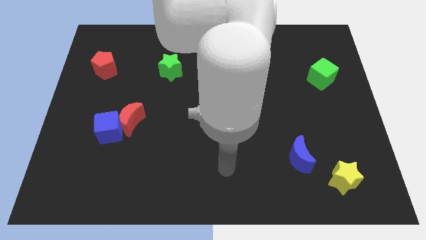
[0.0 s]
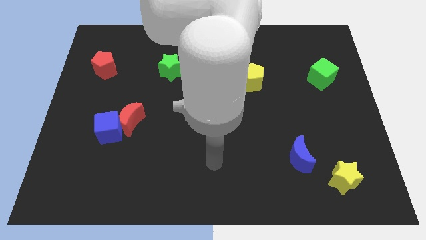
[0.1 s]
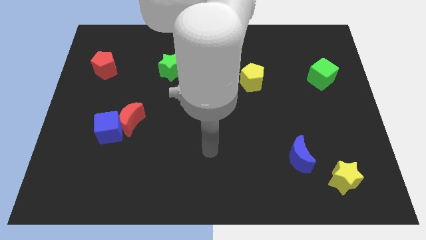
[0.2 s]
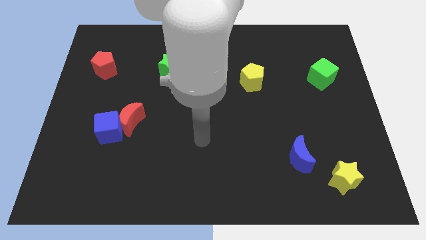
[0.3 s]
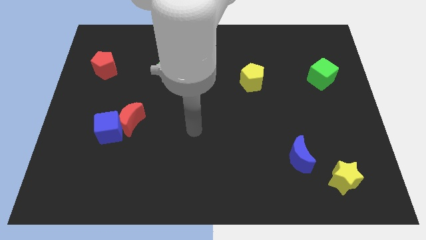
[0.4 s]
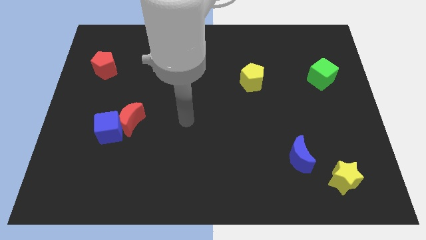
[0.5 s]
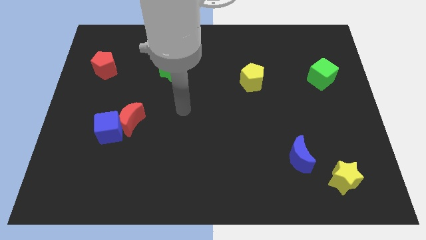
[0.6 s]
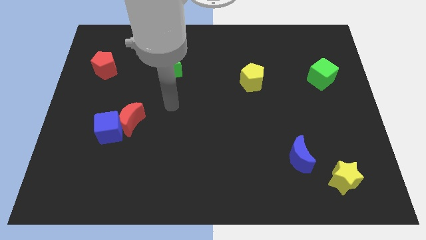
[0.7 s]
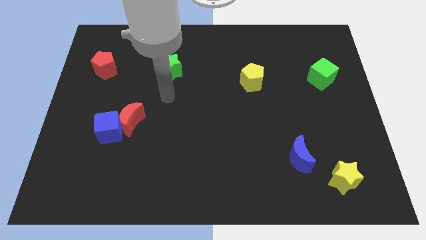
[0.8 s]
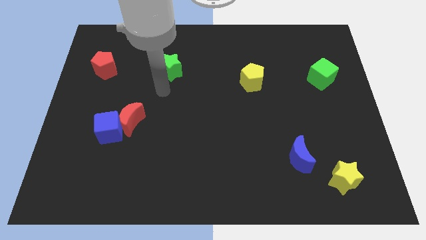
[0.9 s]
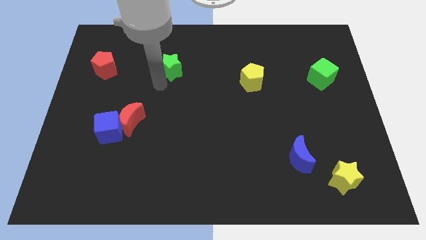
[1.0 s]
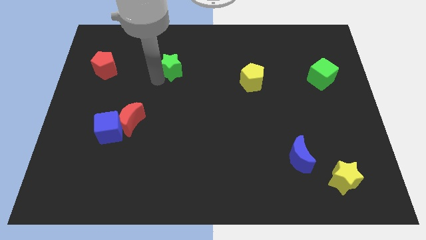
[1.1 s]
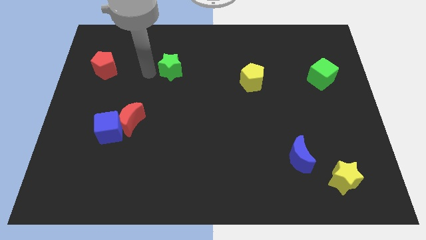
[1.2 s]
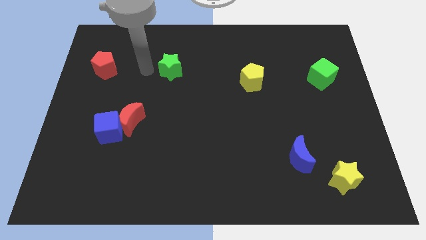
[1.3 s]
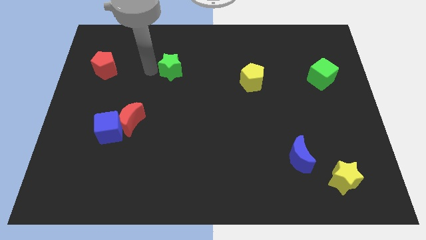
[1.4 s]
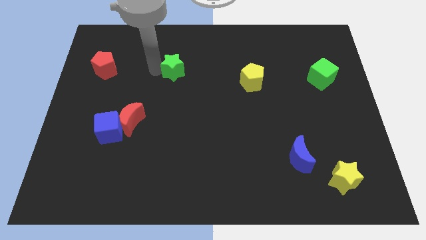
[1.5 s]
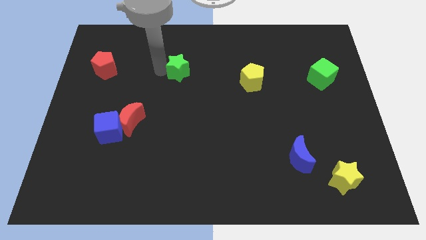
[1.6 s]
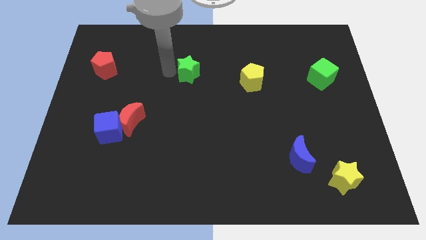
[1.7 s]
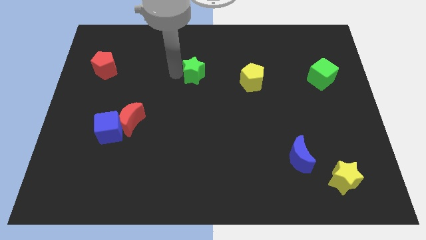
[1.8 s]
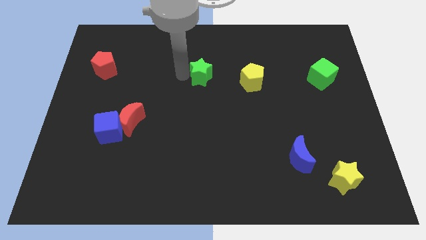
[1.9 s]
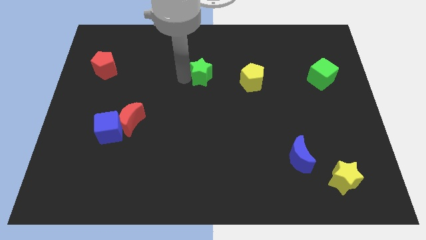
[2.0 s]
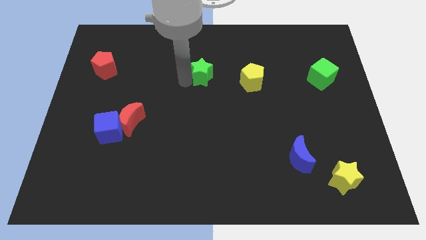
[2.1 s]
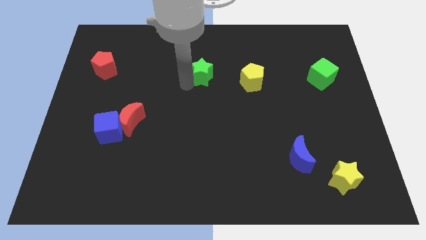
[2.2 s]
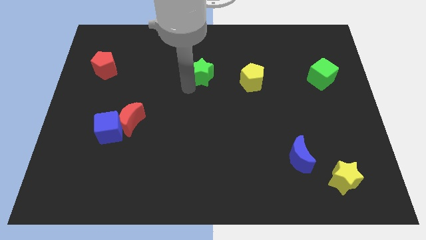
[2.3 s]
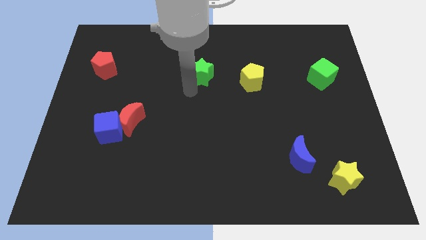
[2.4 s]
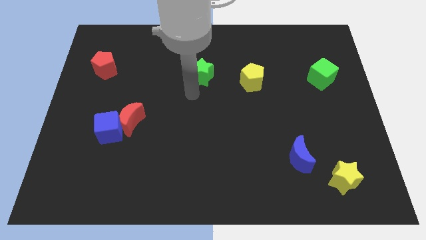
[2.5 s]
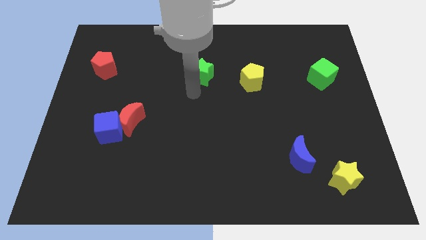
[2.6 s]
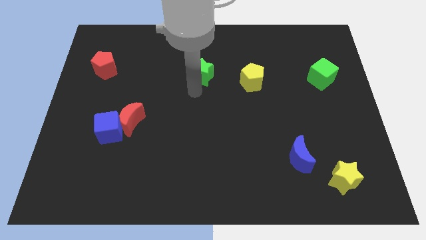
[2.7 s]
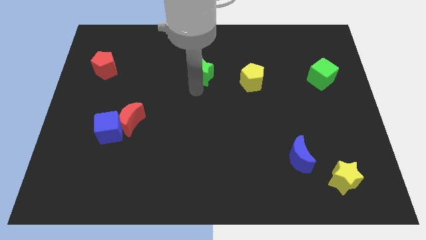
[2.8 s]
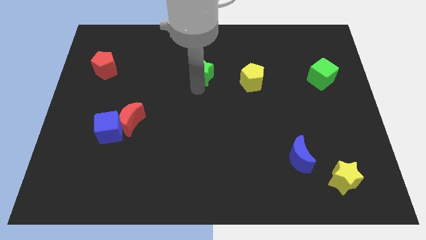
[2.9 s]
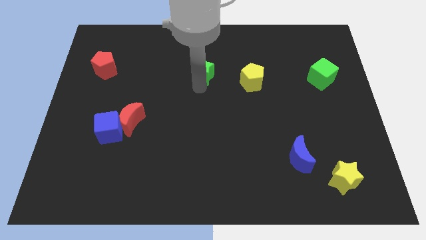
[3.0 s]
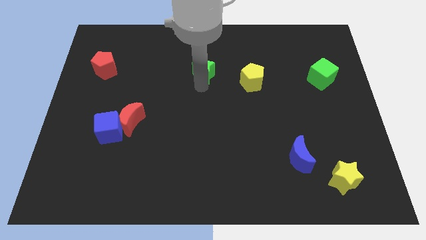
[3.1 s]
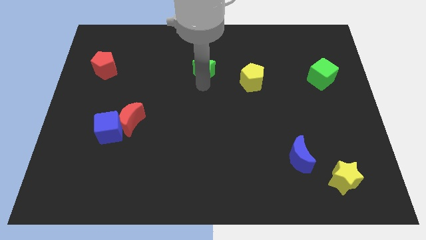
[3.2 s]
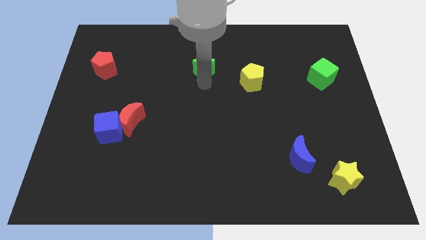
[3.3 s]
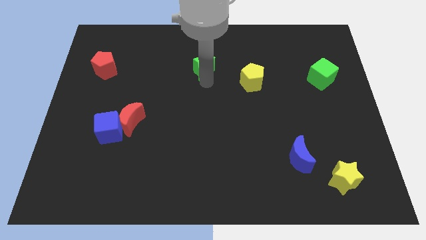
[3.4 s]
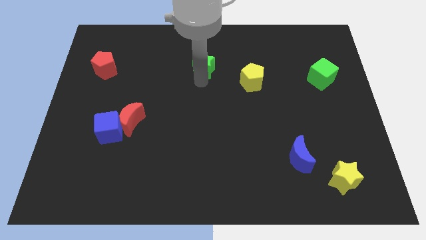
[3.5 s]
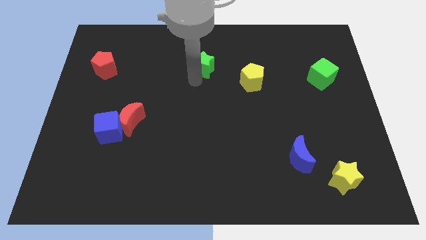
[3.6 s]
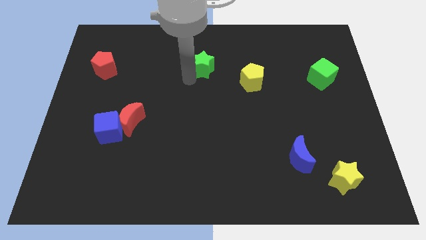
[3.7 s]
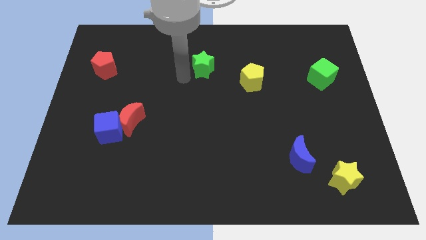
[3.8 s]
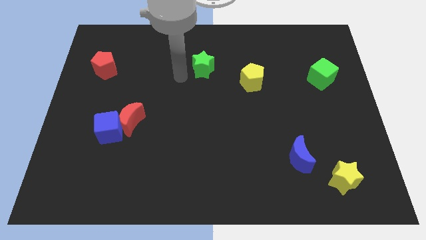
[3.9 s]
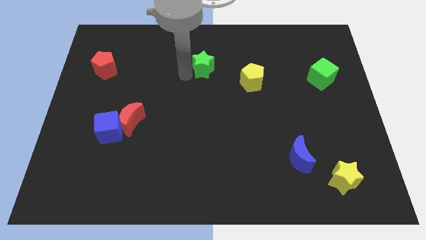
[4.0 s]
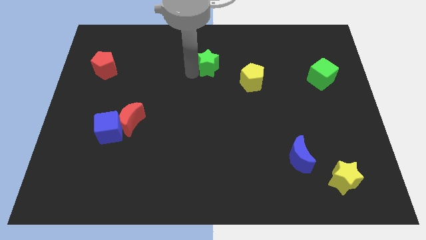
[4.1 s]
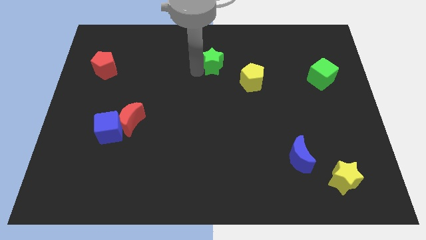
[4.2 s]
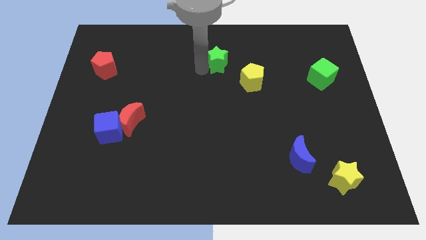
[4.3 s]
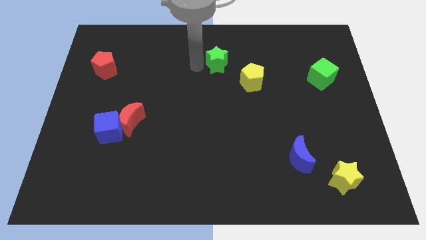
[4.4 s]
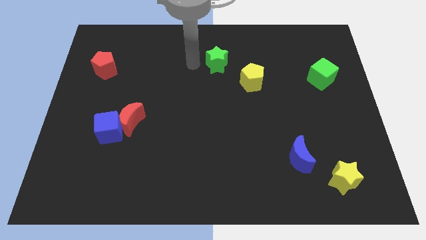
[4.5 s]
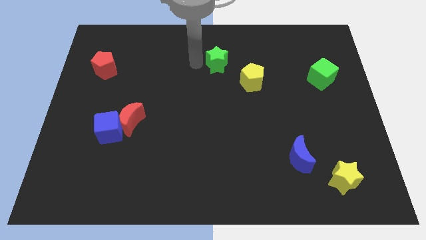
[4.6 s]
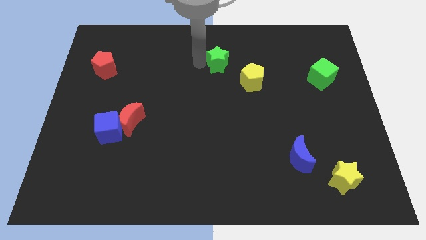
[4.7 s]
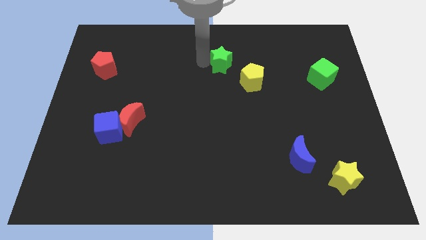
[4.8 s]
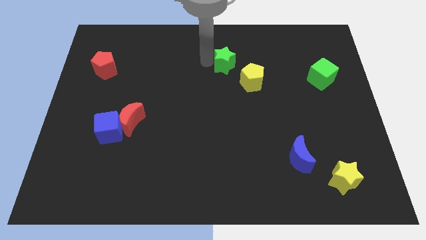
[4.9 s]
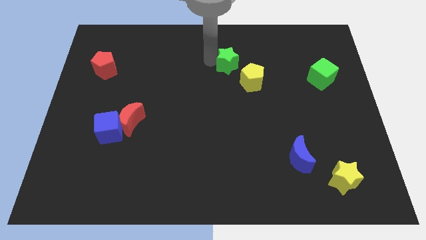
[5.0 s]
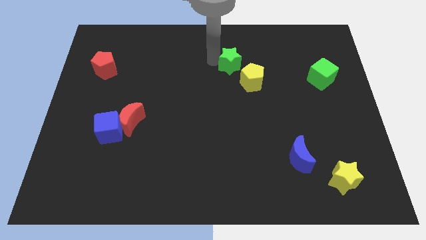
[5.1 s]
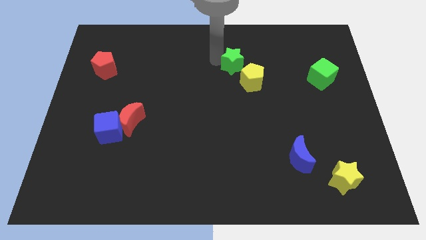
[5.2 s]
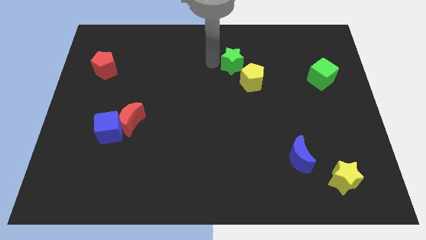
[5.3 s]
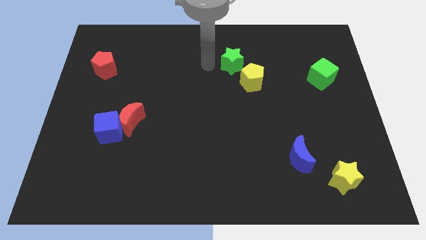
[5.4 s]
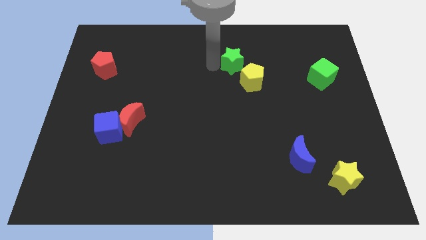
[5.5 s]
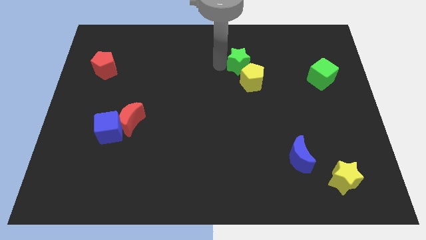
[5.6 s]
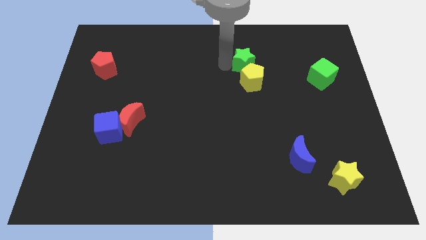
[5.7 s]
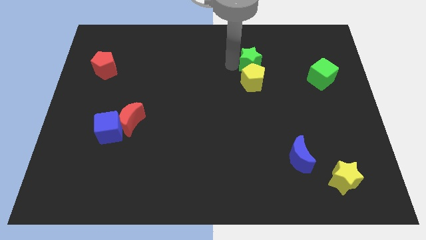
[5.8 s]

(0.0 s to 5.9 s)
move the green star right

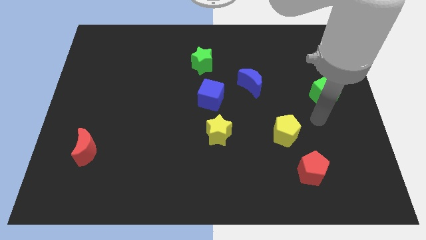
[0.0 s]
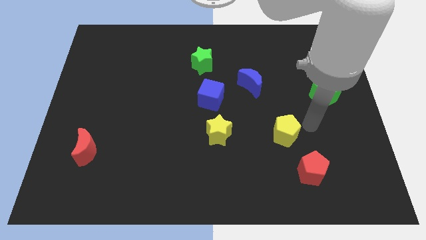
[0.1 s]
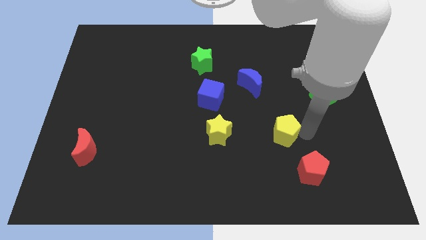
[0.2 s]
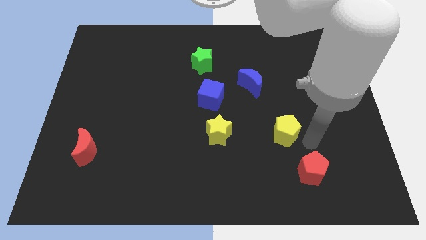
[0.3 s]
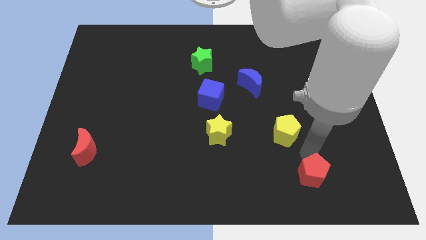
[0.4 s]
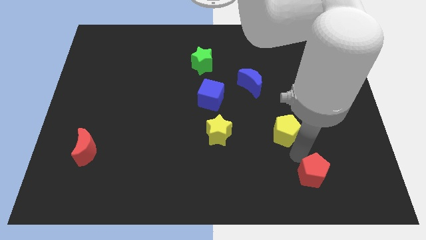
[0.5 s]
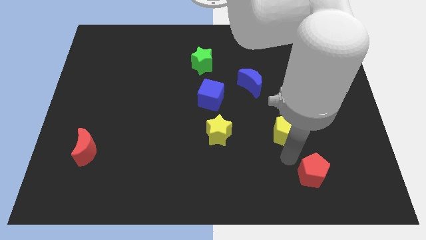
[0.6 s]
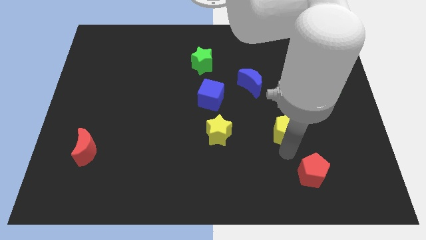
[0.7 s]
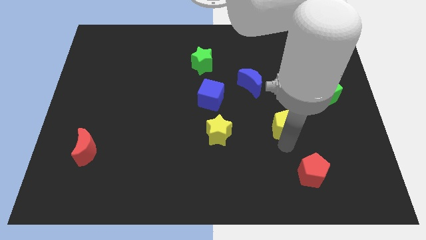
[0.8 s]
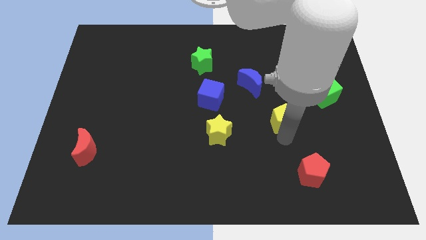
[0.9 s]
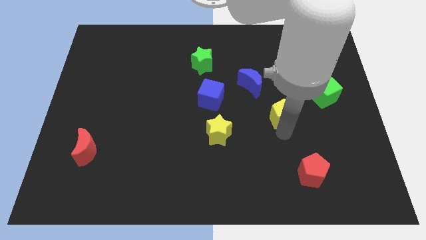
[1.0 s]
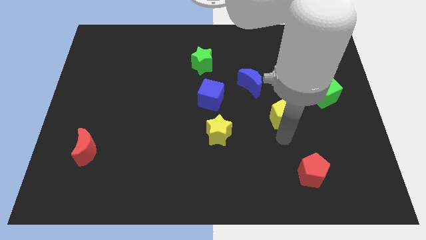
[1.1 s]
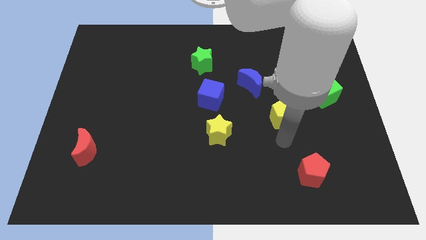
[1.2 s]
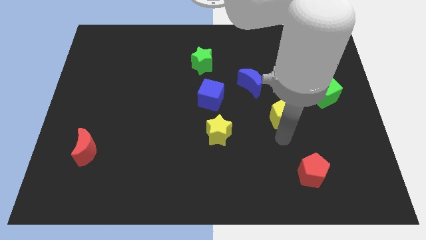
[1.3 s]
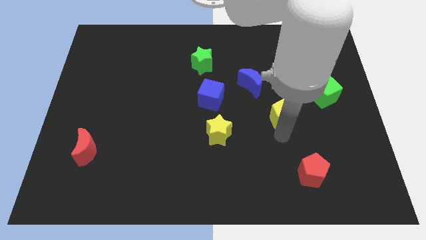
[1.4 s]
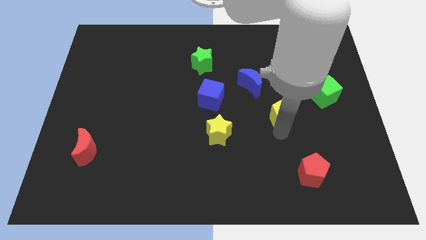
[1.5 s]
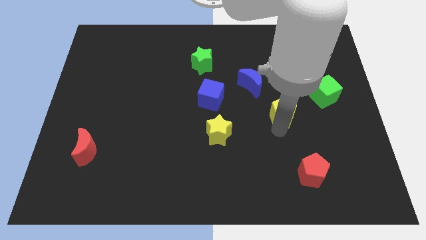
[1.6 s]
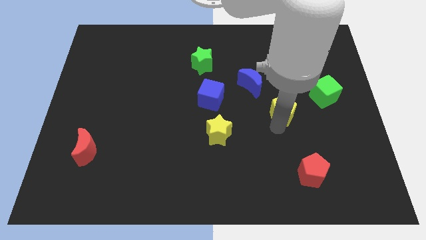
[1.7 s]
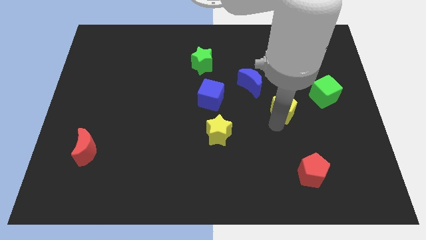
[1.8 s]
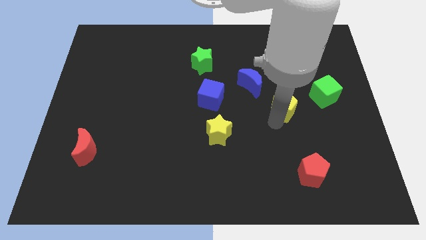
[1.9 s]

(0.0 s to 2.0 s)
slightly move the yellow pentagon up
